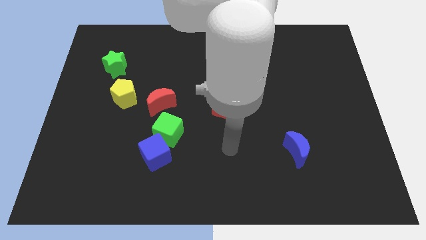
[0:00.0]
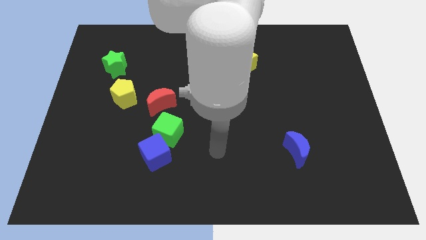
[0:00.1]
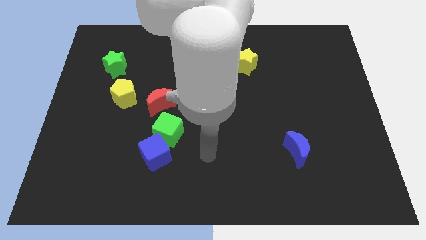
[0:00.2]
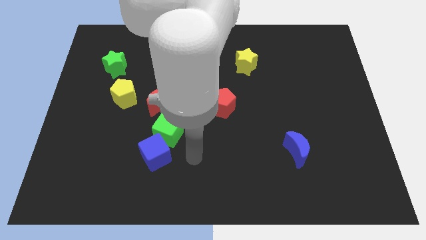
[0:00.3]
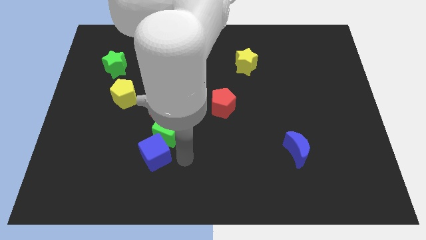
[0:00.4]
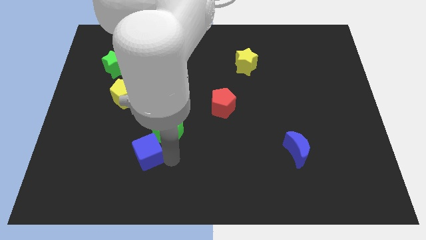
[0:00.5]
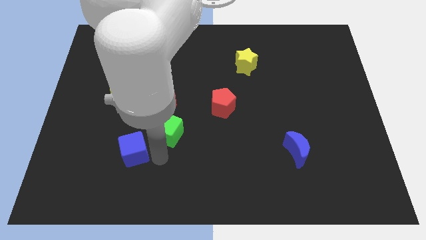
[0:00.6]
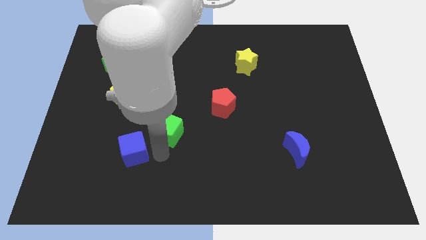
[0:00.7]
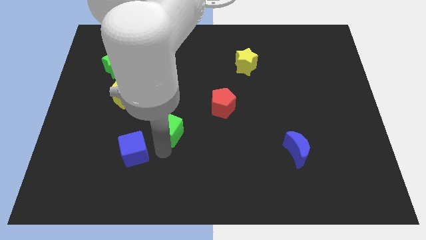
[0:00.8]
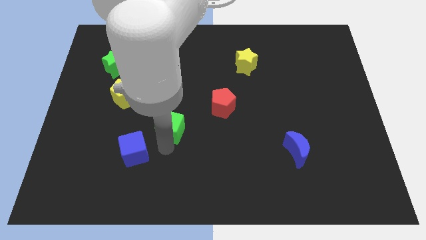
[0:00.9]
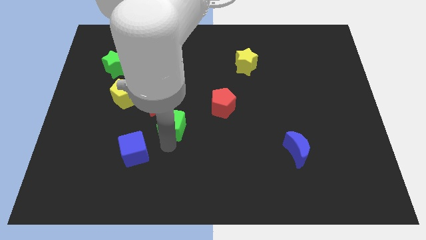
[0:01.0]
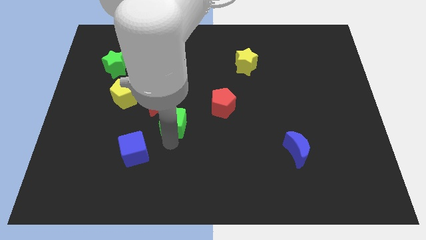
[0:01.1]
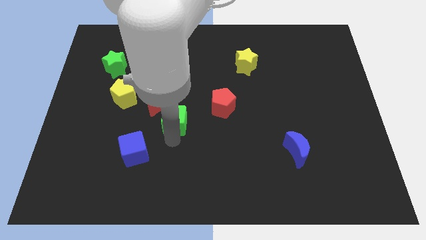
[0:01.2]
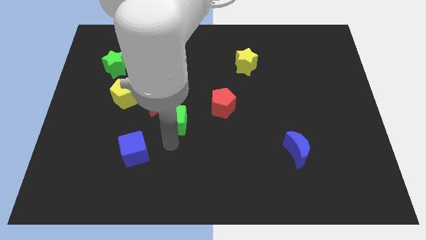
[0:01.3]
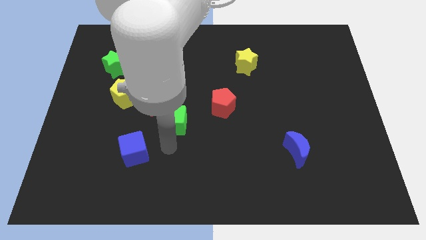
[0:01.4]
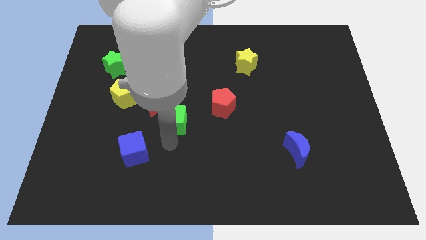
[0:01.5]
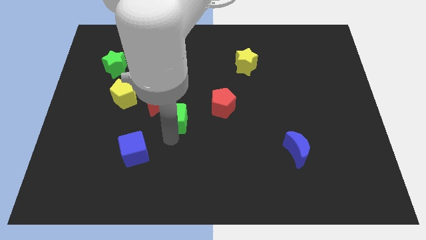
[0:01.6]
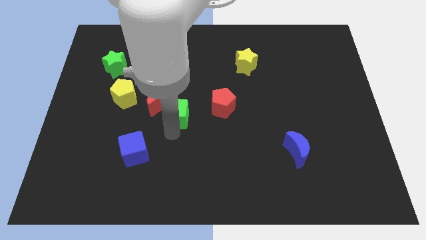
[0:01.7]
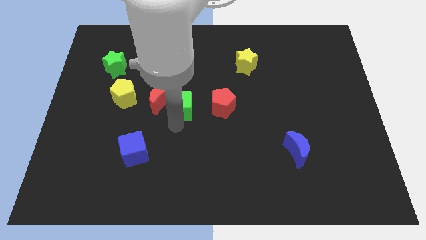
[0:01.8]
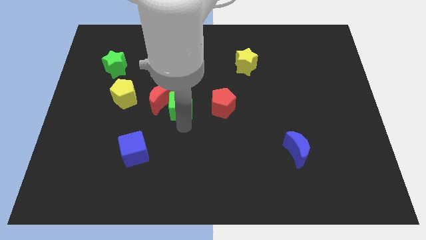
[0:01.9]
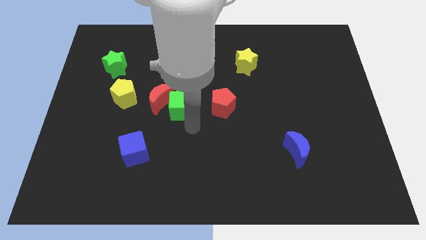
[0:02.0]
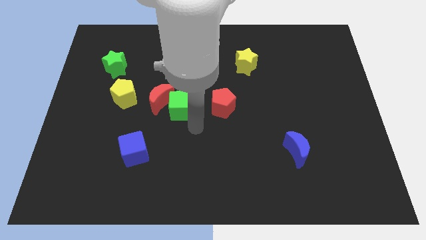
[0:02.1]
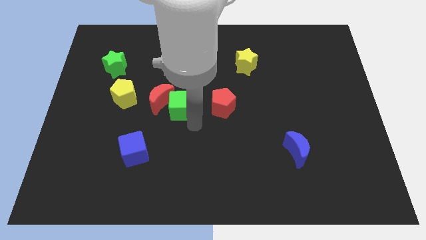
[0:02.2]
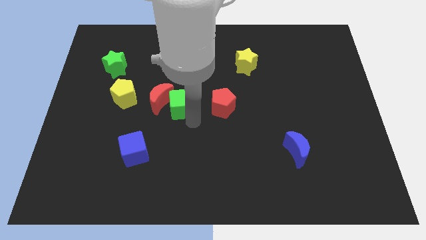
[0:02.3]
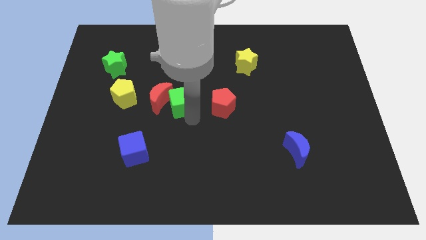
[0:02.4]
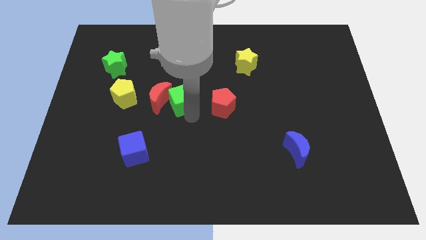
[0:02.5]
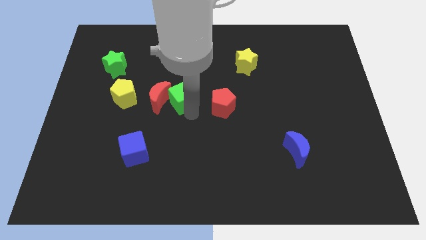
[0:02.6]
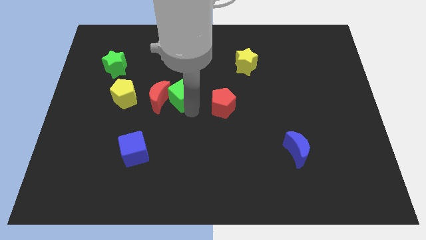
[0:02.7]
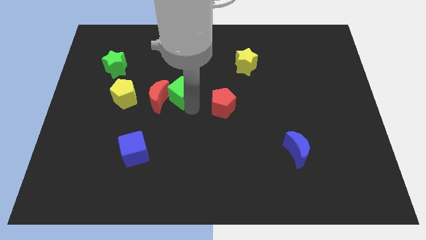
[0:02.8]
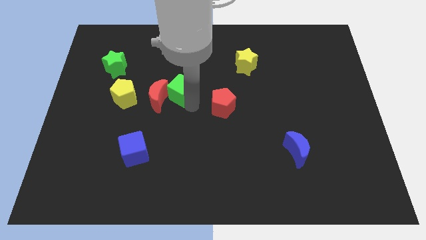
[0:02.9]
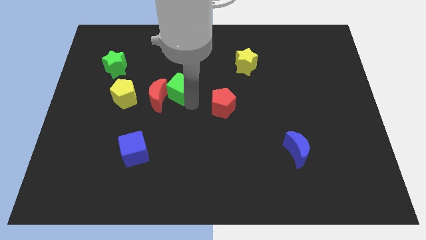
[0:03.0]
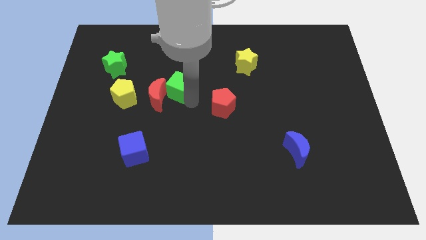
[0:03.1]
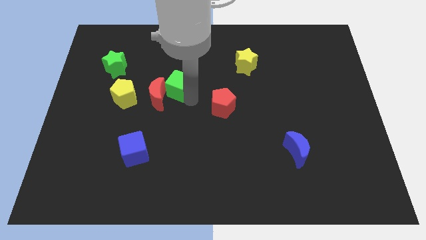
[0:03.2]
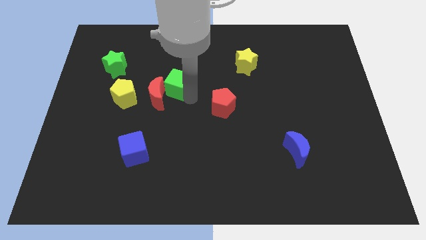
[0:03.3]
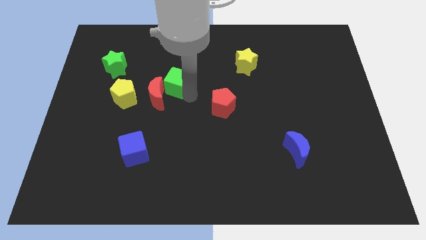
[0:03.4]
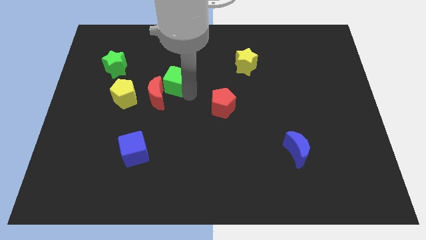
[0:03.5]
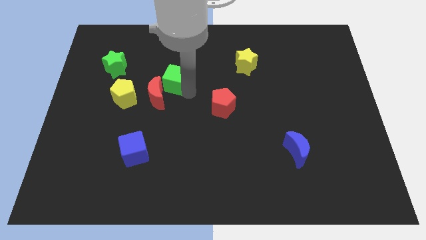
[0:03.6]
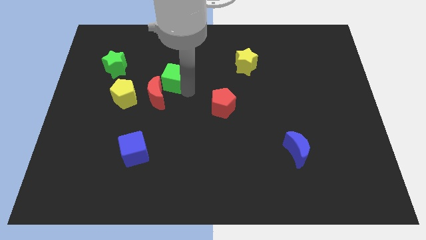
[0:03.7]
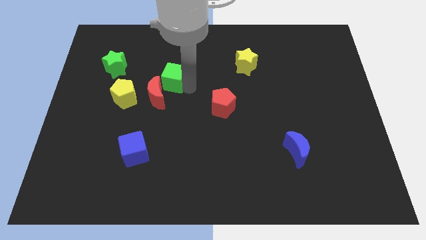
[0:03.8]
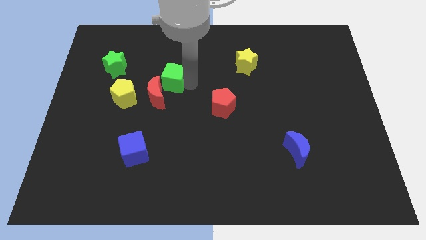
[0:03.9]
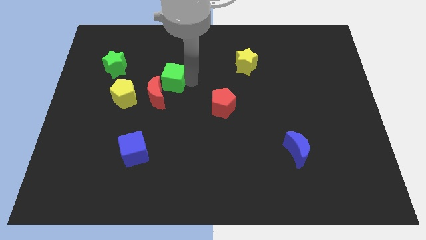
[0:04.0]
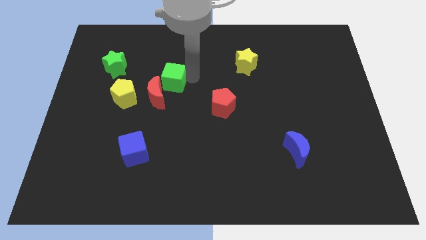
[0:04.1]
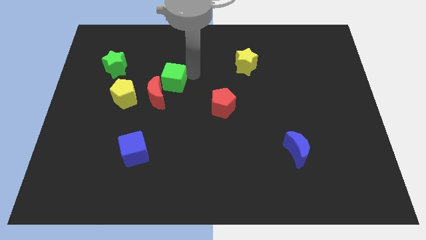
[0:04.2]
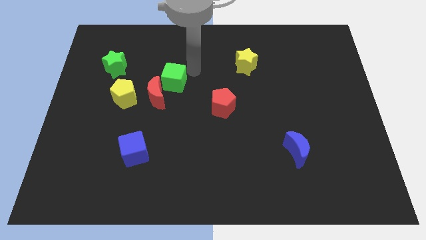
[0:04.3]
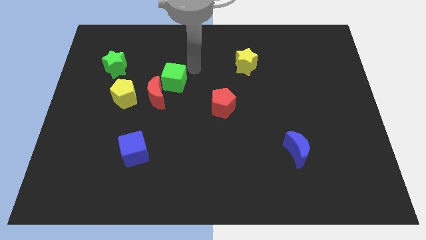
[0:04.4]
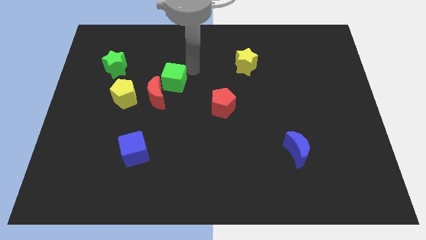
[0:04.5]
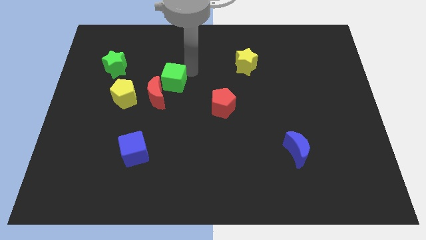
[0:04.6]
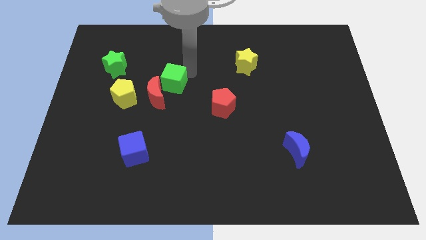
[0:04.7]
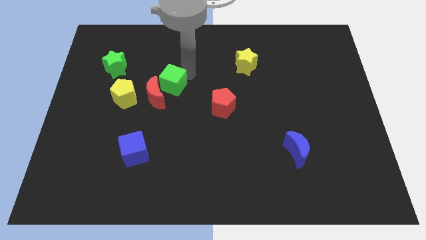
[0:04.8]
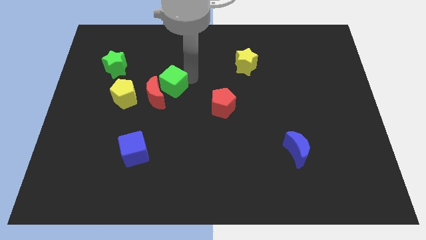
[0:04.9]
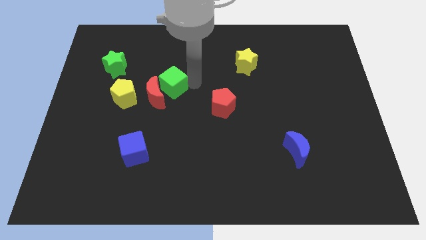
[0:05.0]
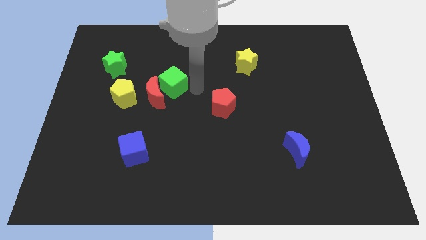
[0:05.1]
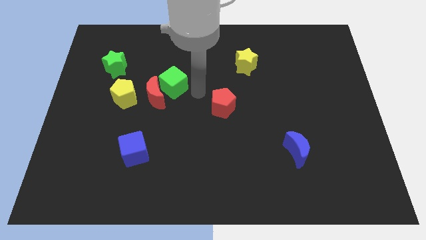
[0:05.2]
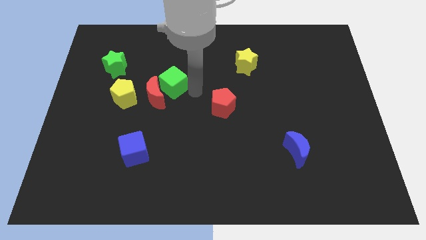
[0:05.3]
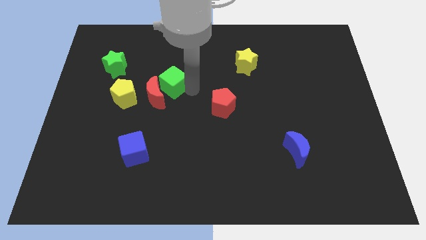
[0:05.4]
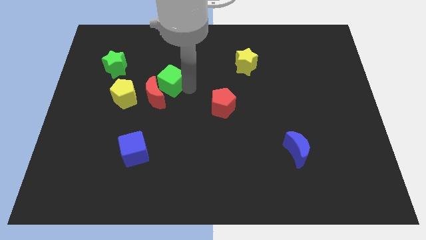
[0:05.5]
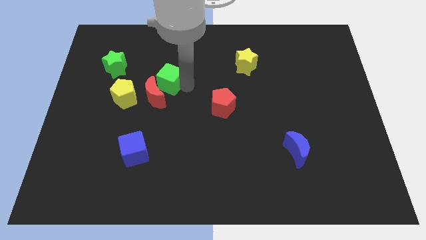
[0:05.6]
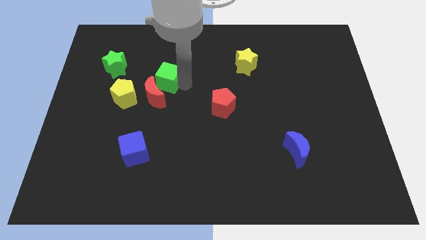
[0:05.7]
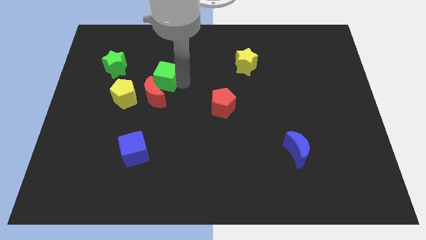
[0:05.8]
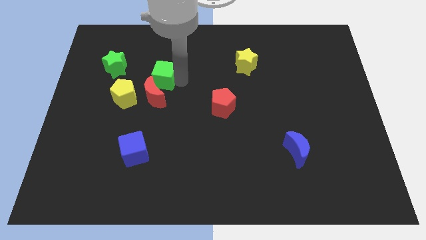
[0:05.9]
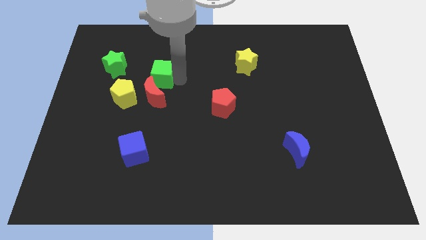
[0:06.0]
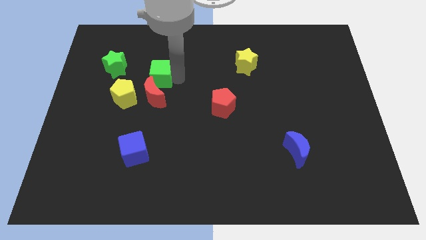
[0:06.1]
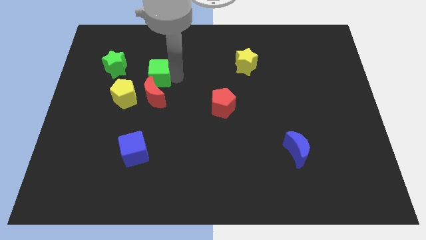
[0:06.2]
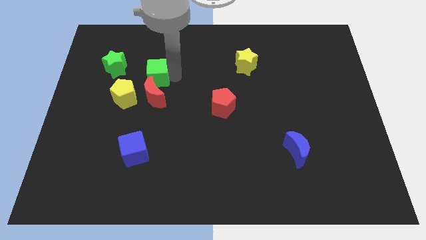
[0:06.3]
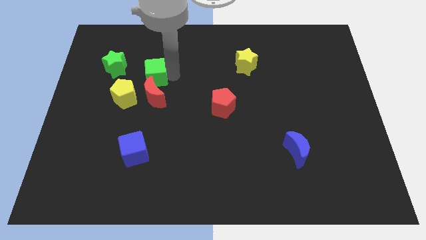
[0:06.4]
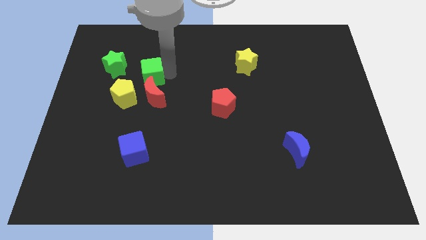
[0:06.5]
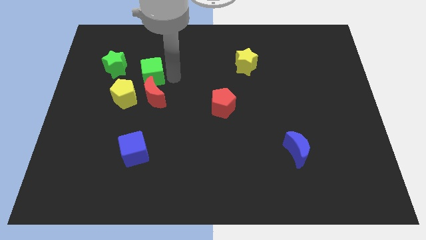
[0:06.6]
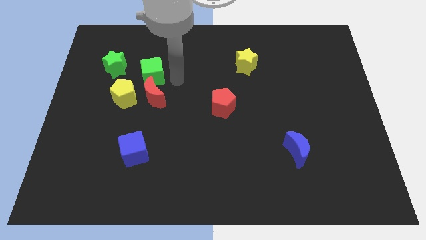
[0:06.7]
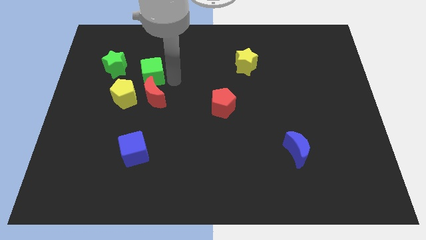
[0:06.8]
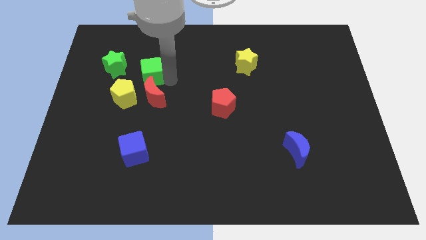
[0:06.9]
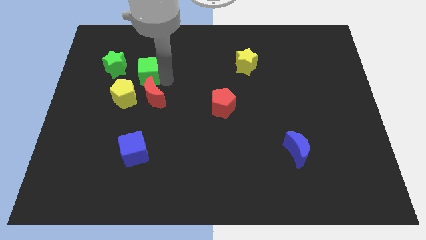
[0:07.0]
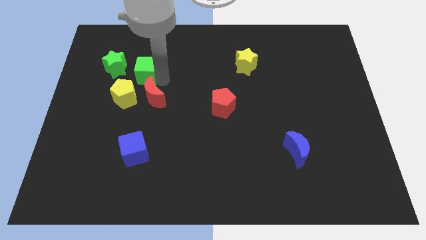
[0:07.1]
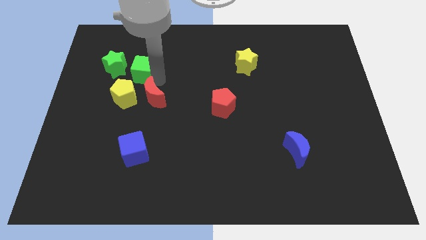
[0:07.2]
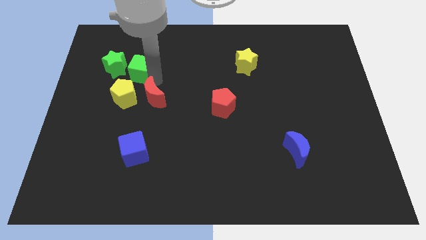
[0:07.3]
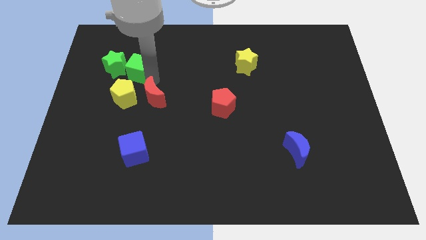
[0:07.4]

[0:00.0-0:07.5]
put the green cube to the green star
